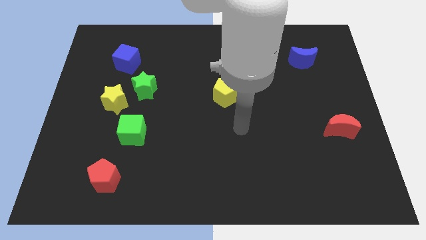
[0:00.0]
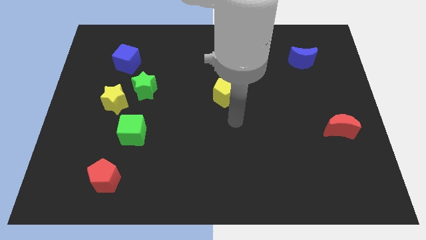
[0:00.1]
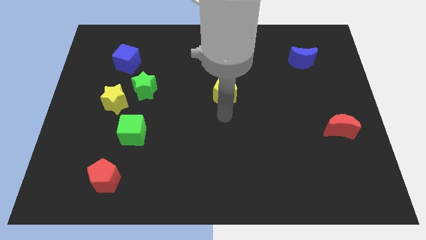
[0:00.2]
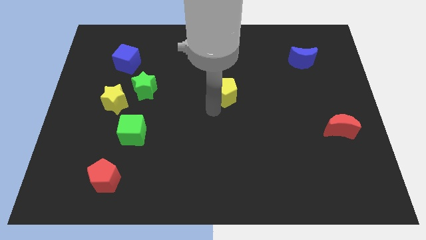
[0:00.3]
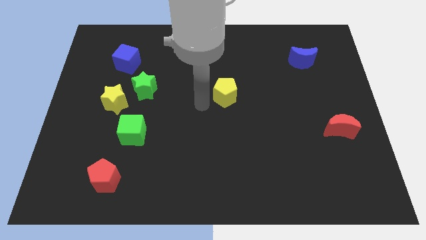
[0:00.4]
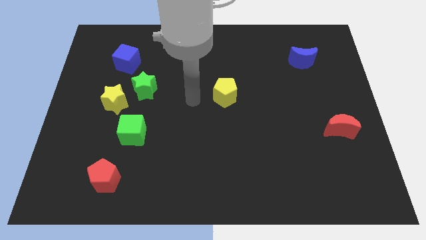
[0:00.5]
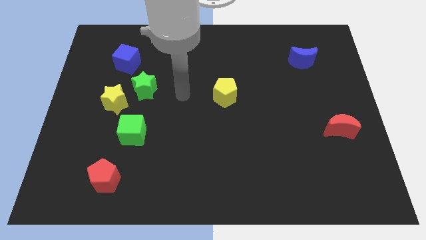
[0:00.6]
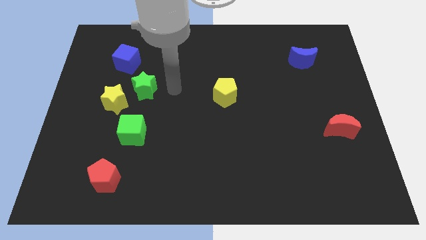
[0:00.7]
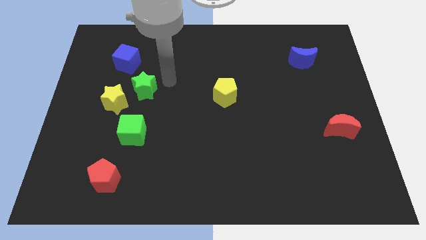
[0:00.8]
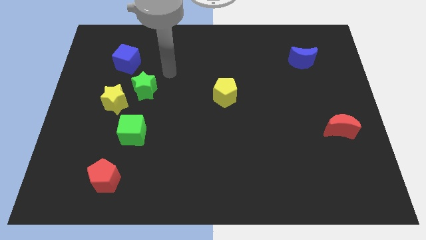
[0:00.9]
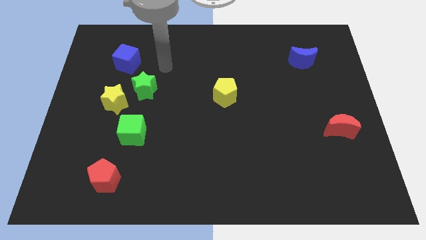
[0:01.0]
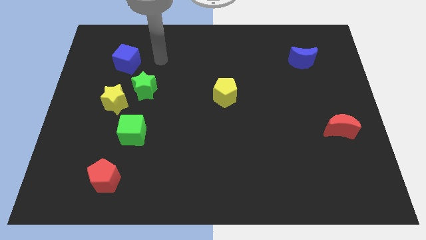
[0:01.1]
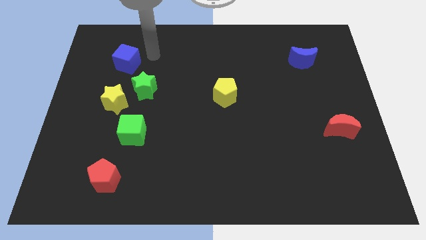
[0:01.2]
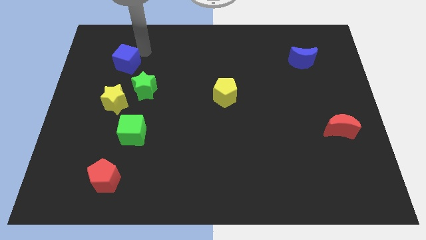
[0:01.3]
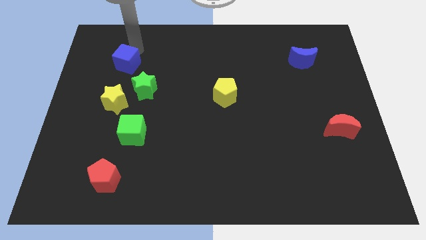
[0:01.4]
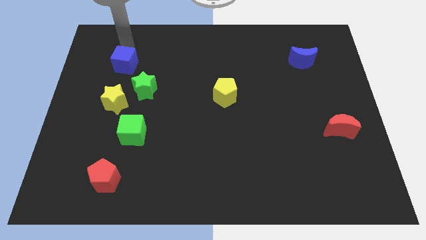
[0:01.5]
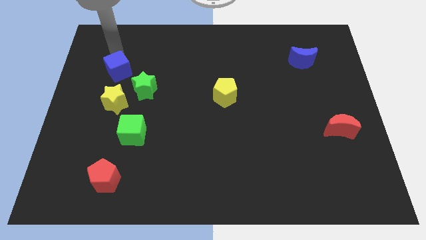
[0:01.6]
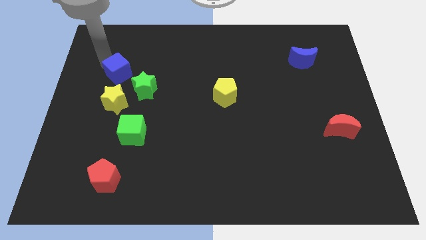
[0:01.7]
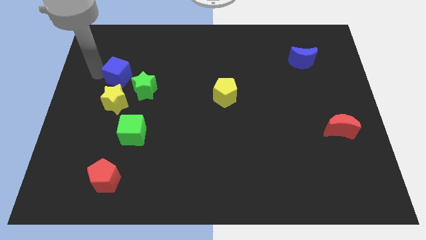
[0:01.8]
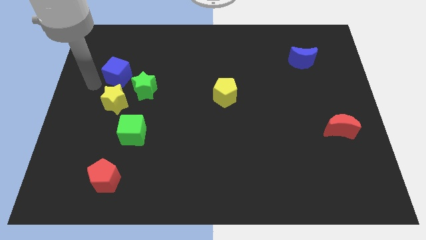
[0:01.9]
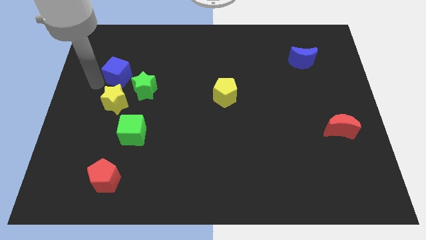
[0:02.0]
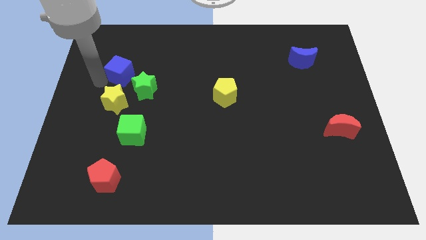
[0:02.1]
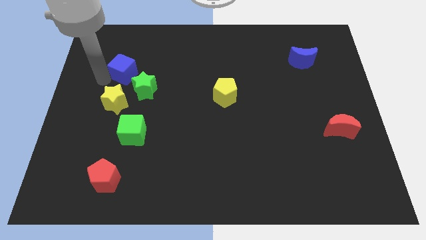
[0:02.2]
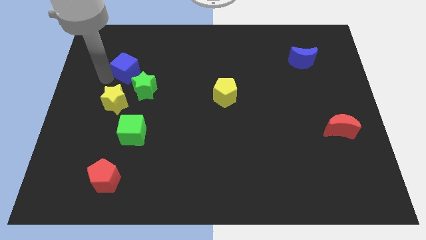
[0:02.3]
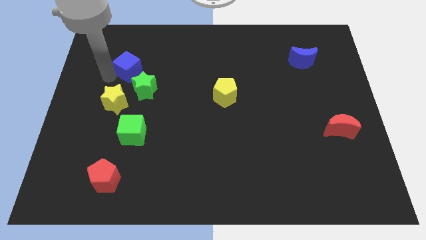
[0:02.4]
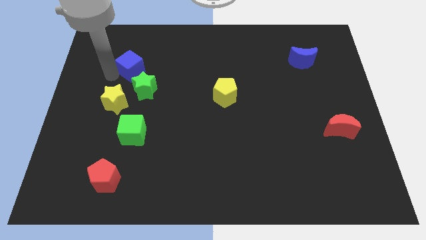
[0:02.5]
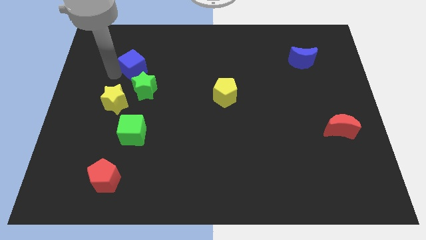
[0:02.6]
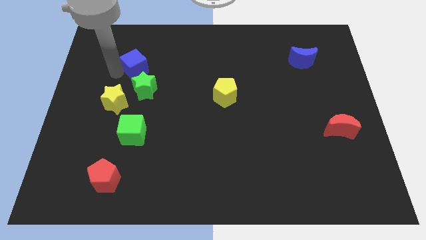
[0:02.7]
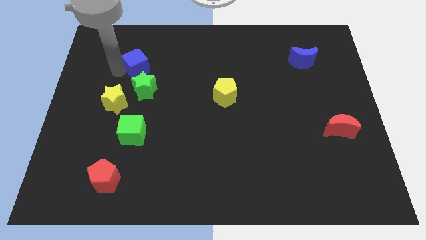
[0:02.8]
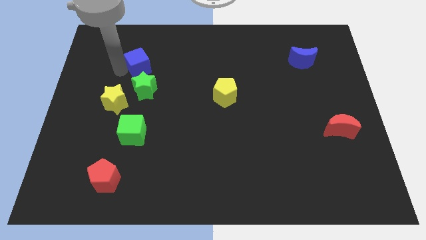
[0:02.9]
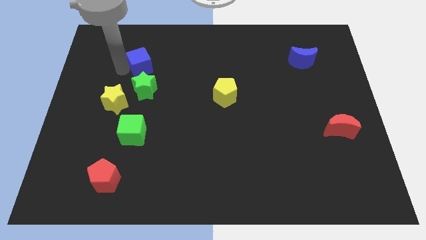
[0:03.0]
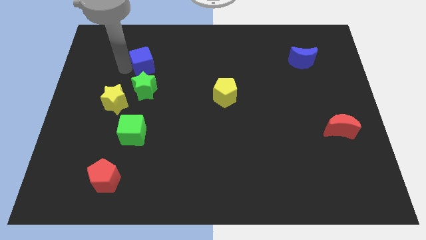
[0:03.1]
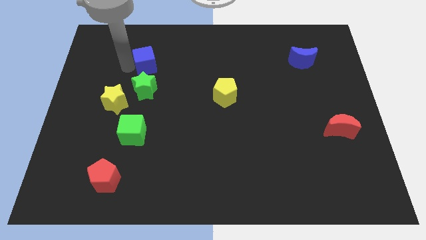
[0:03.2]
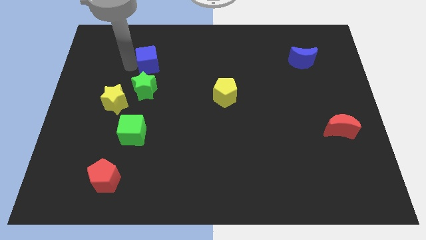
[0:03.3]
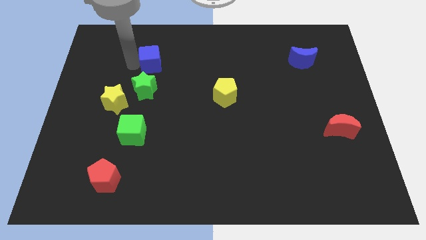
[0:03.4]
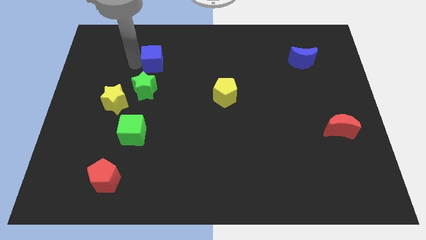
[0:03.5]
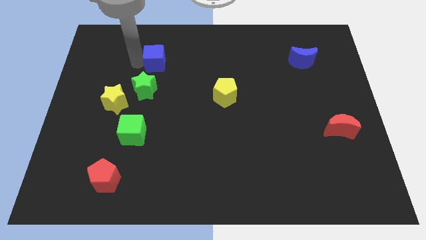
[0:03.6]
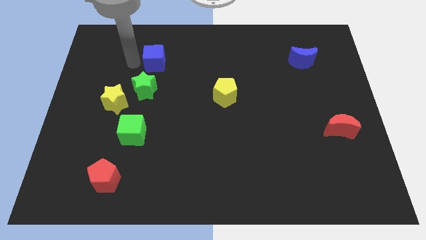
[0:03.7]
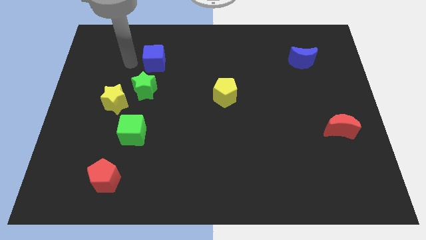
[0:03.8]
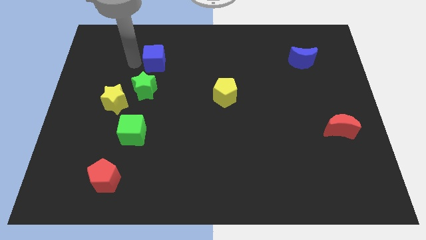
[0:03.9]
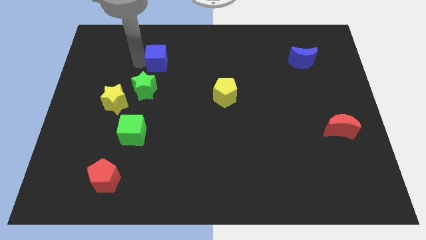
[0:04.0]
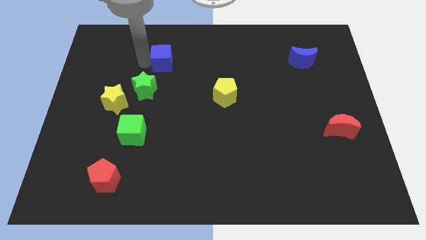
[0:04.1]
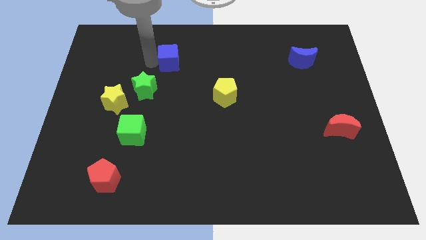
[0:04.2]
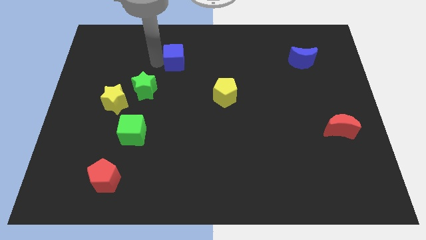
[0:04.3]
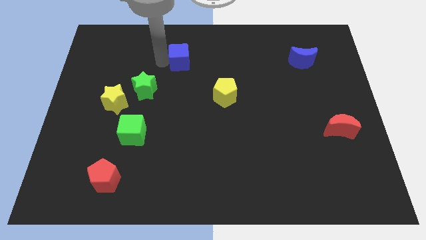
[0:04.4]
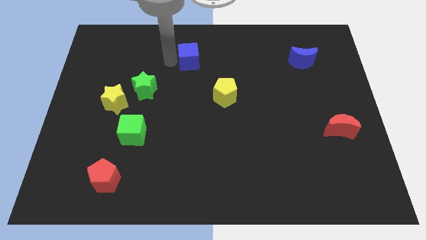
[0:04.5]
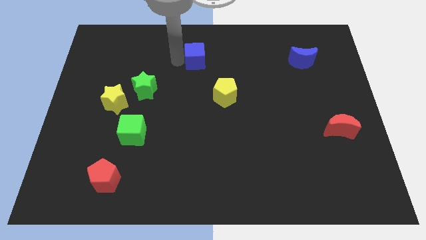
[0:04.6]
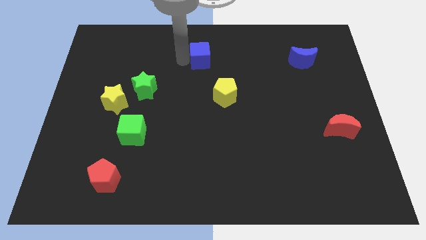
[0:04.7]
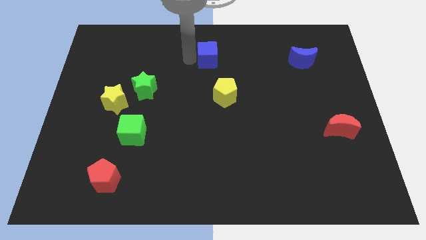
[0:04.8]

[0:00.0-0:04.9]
slide the blue cube to the top side of the yellow pentagon

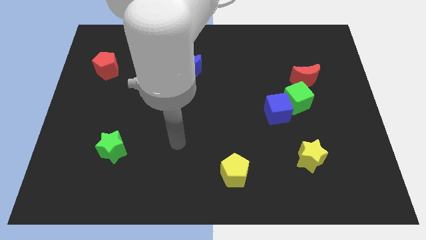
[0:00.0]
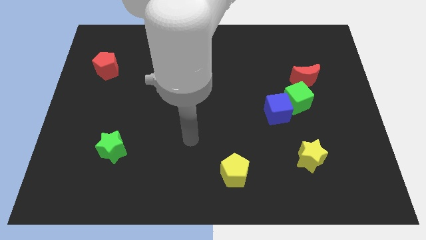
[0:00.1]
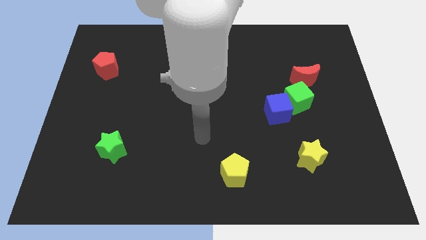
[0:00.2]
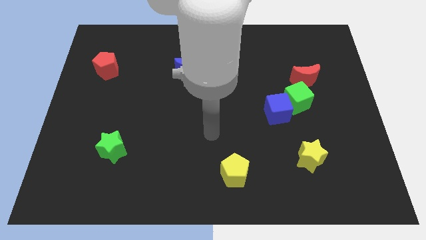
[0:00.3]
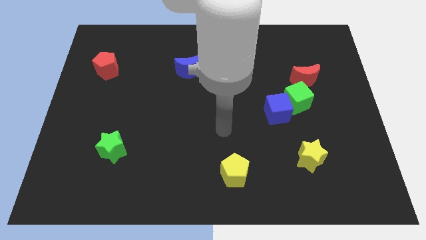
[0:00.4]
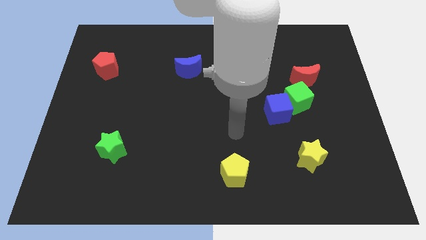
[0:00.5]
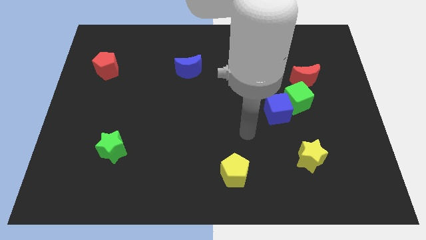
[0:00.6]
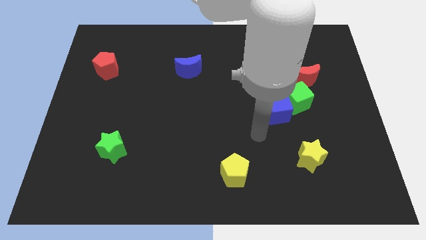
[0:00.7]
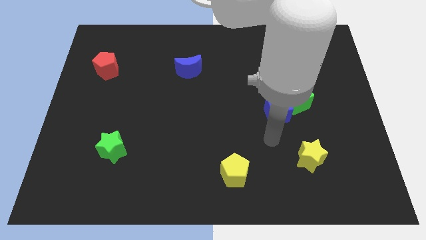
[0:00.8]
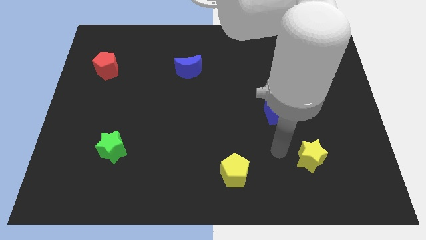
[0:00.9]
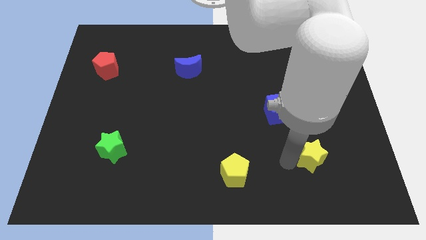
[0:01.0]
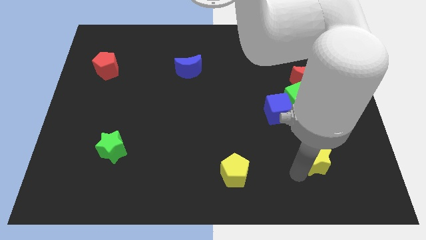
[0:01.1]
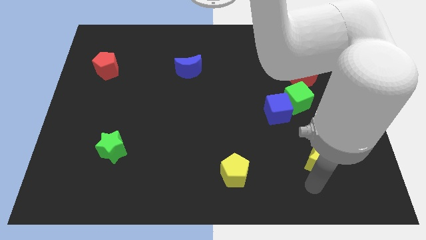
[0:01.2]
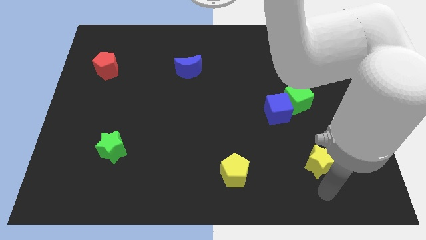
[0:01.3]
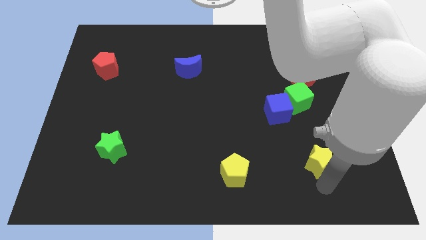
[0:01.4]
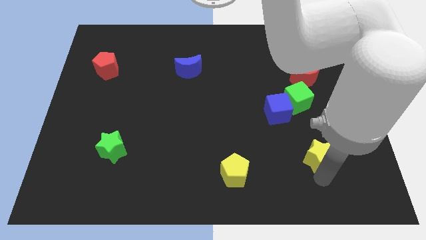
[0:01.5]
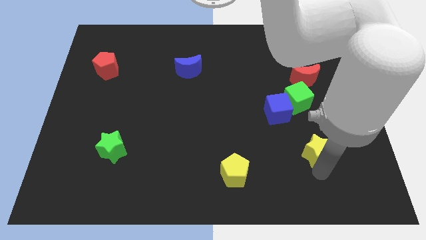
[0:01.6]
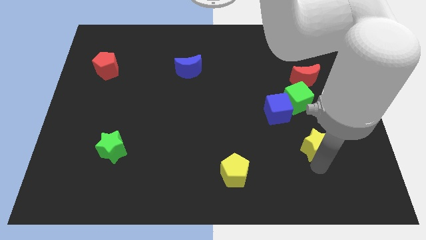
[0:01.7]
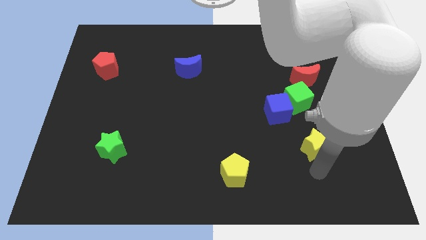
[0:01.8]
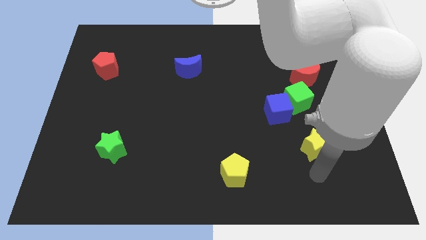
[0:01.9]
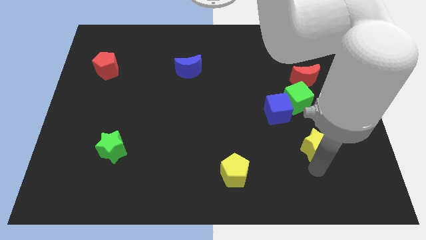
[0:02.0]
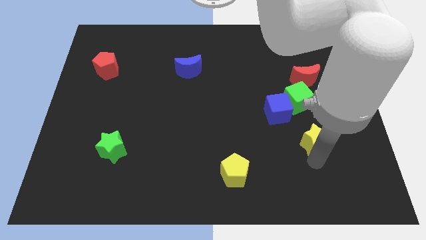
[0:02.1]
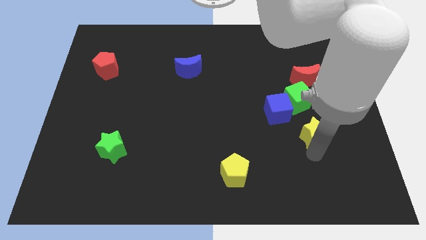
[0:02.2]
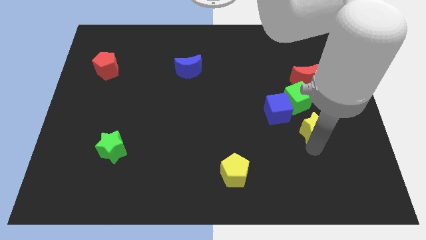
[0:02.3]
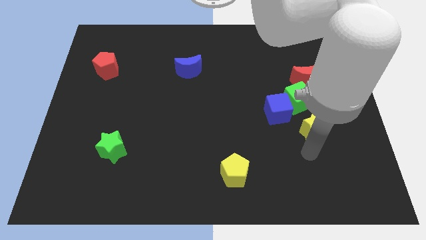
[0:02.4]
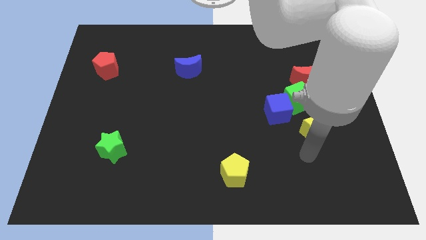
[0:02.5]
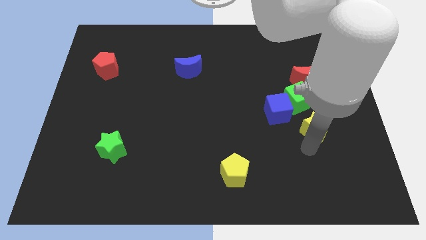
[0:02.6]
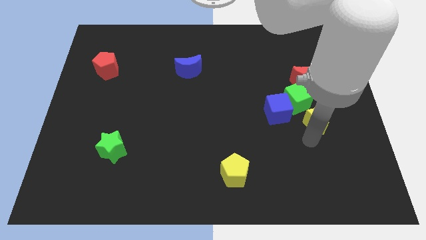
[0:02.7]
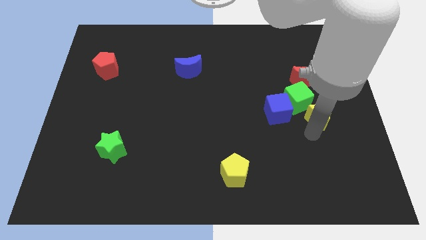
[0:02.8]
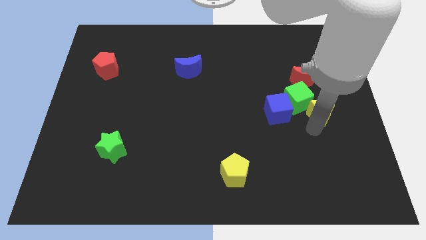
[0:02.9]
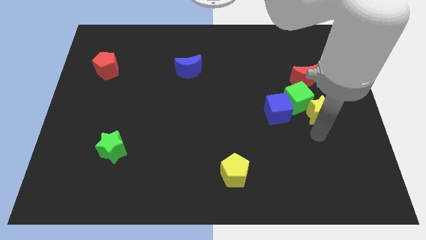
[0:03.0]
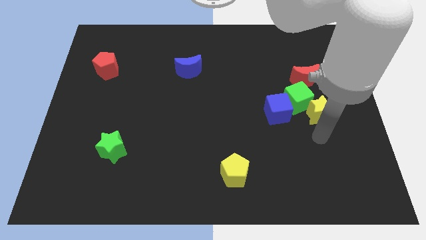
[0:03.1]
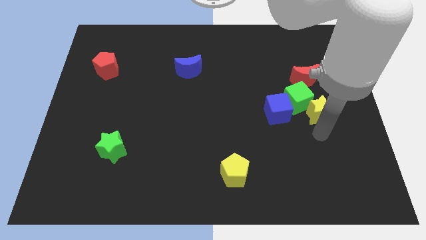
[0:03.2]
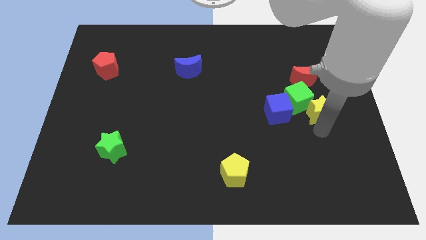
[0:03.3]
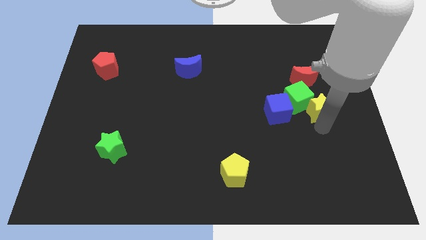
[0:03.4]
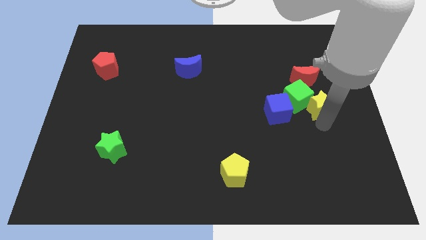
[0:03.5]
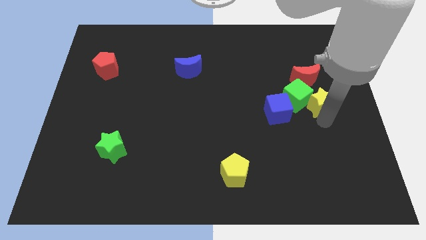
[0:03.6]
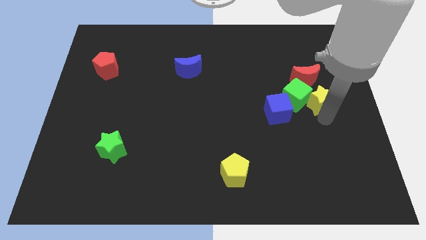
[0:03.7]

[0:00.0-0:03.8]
move the yellow star diagonally up and to the right of the green cube
